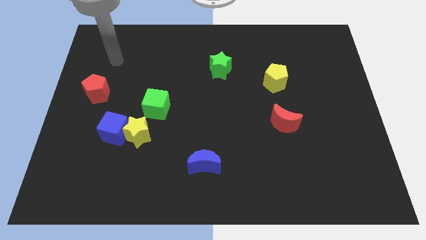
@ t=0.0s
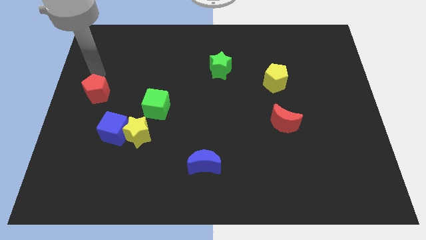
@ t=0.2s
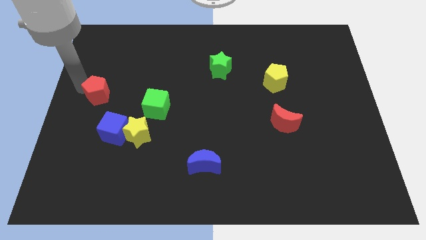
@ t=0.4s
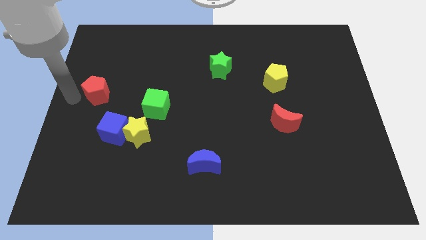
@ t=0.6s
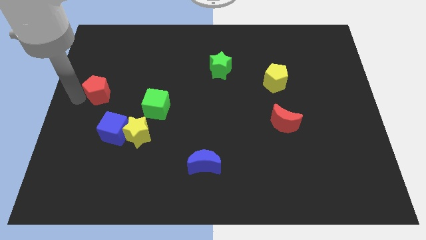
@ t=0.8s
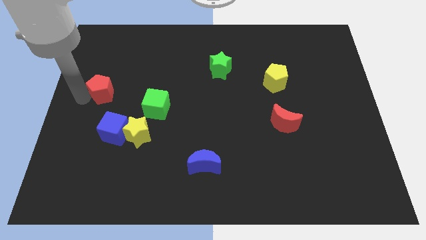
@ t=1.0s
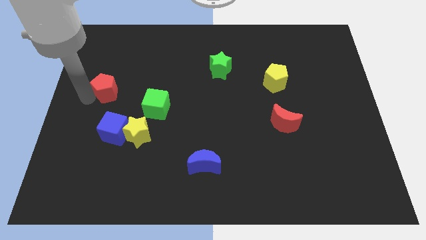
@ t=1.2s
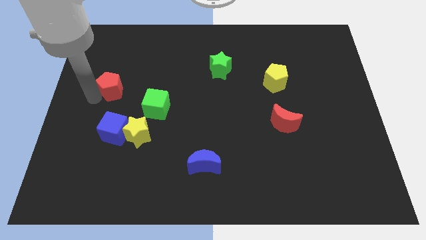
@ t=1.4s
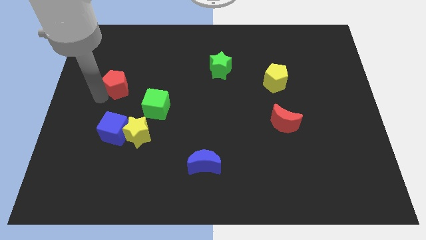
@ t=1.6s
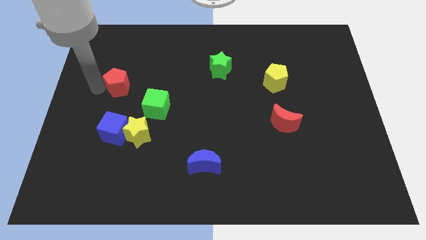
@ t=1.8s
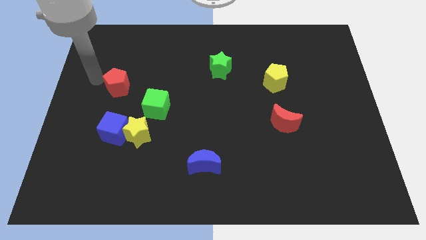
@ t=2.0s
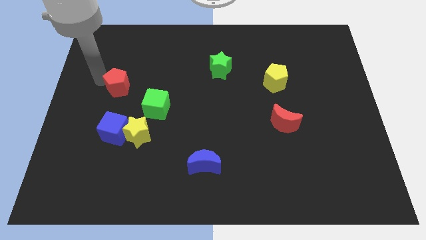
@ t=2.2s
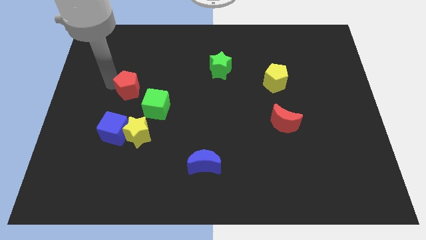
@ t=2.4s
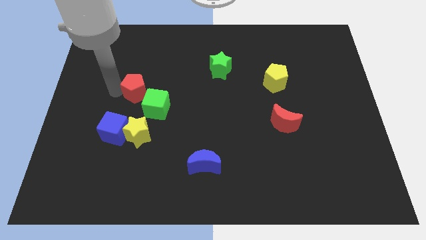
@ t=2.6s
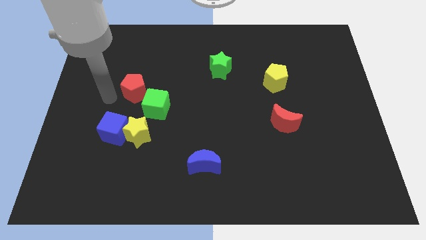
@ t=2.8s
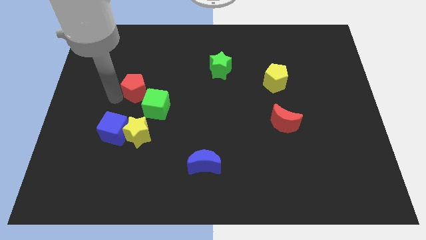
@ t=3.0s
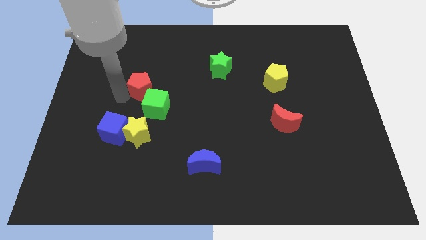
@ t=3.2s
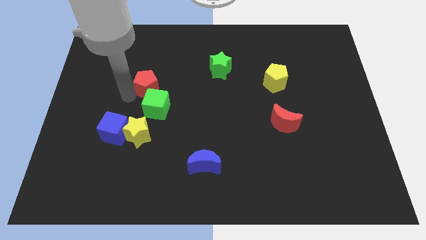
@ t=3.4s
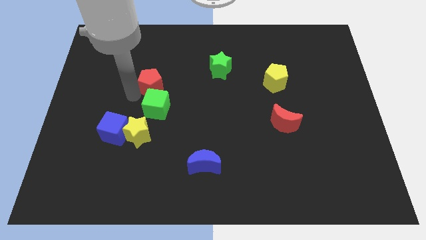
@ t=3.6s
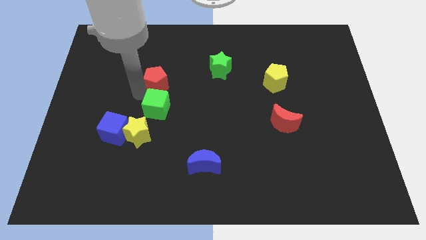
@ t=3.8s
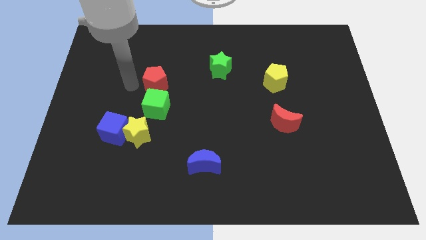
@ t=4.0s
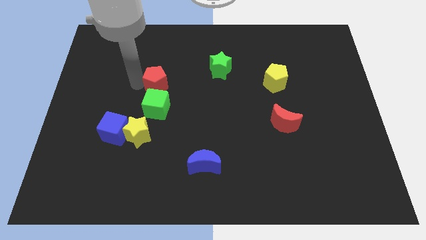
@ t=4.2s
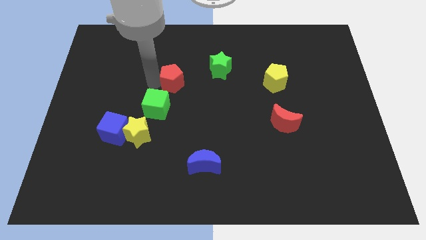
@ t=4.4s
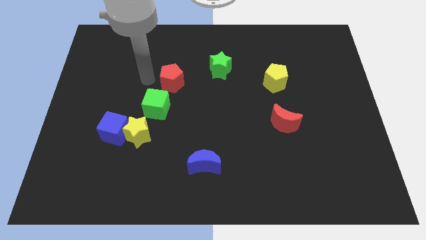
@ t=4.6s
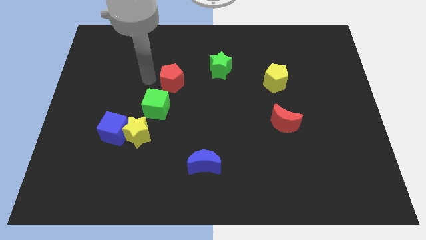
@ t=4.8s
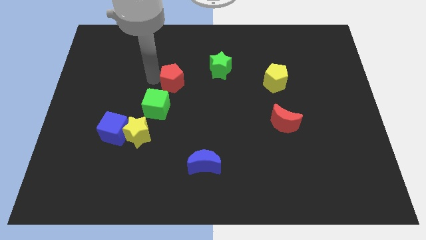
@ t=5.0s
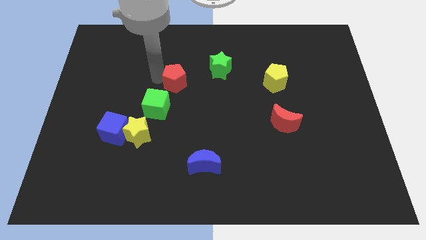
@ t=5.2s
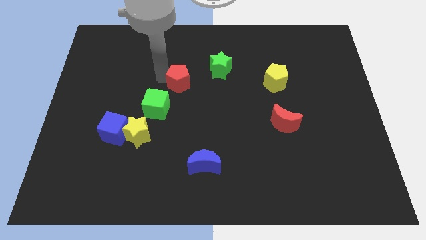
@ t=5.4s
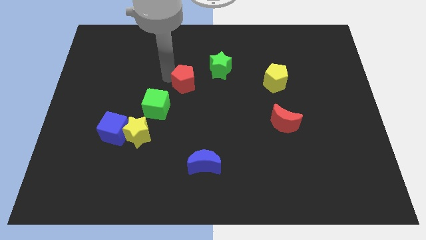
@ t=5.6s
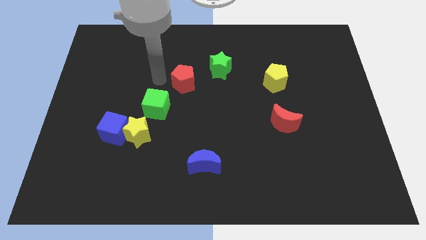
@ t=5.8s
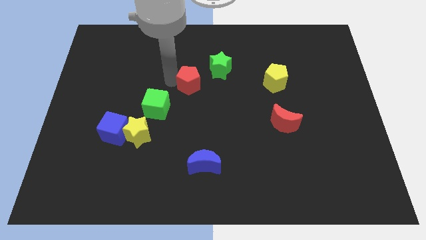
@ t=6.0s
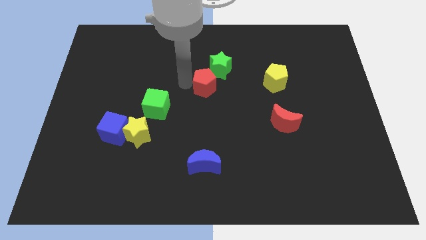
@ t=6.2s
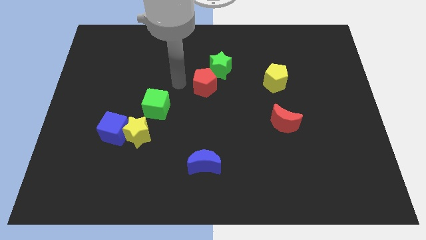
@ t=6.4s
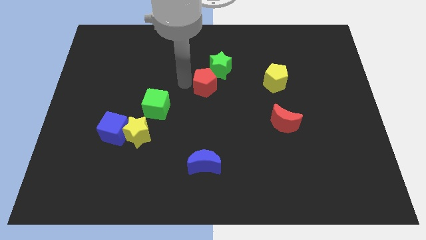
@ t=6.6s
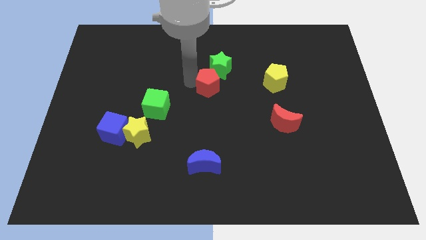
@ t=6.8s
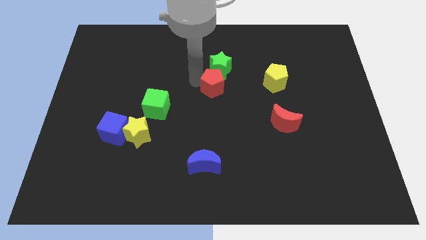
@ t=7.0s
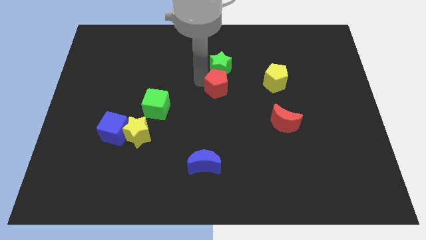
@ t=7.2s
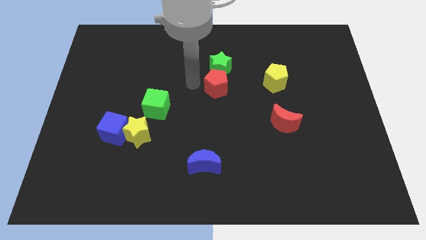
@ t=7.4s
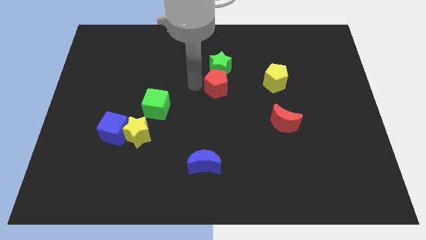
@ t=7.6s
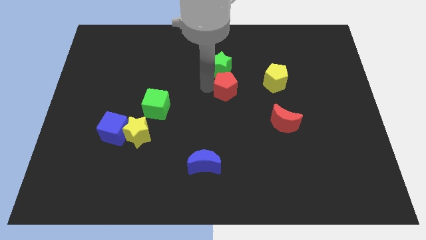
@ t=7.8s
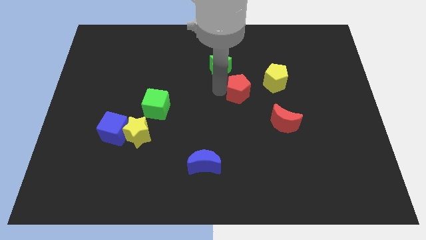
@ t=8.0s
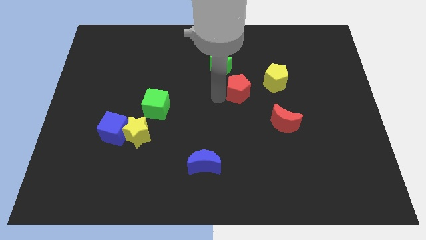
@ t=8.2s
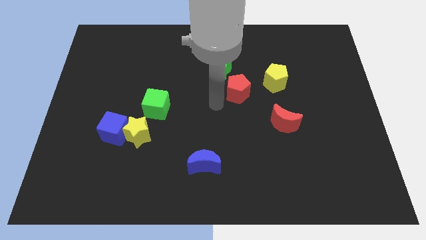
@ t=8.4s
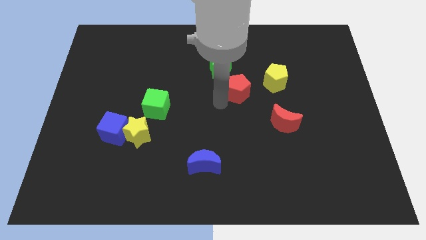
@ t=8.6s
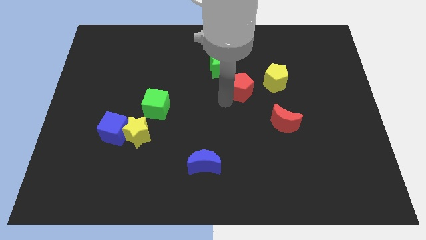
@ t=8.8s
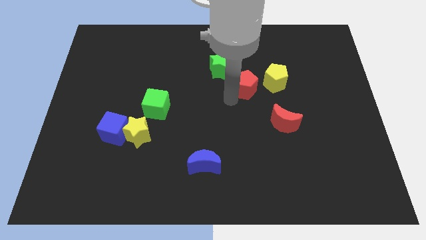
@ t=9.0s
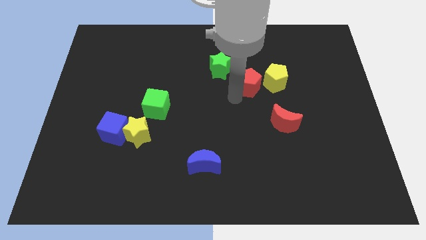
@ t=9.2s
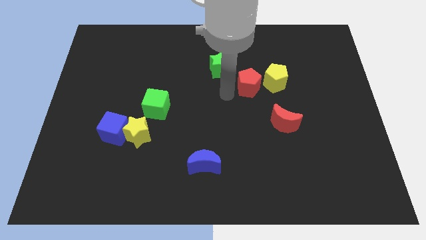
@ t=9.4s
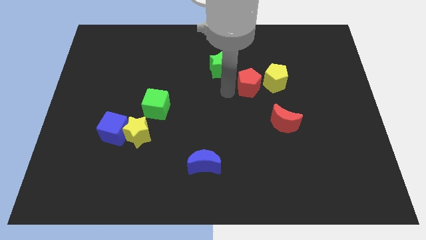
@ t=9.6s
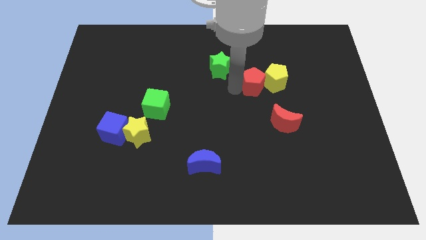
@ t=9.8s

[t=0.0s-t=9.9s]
move the red pentagon close to the yellow pentagon

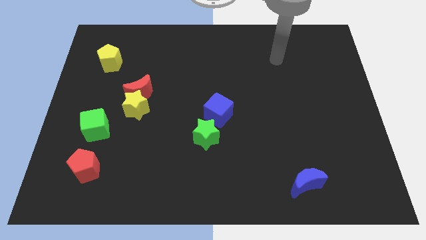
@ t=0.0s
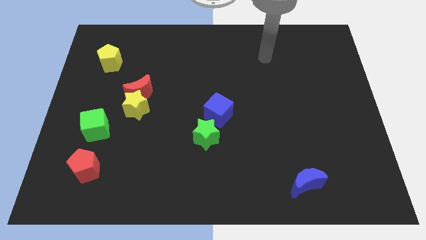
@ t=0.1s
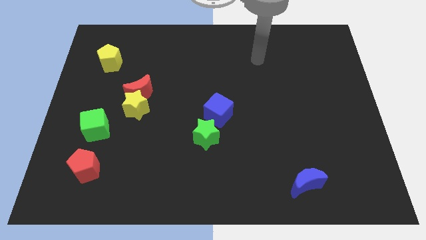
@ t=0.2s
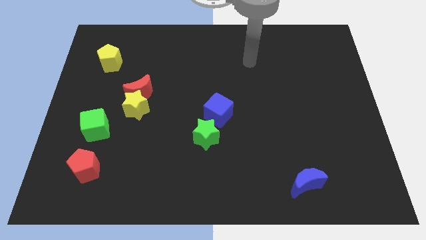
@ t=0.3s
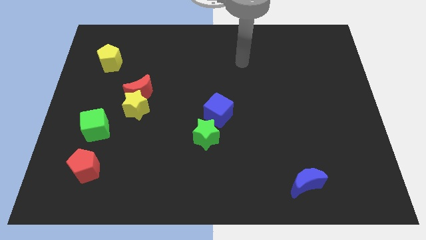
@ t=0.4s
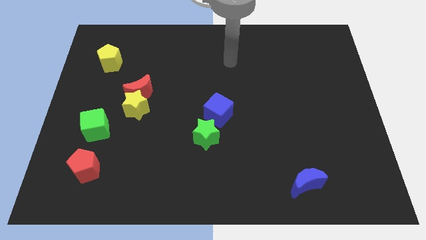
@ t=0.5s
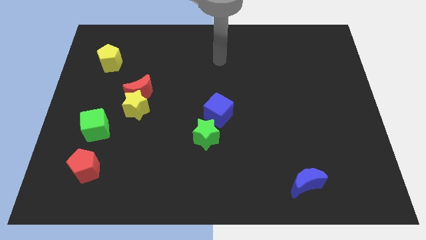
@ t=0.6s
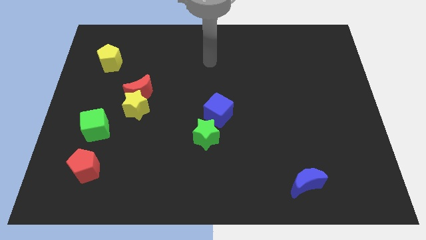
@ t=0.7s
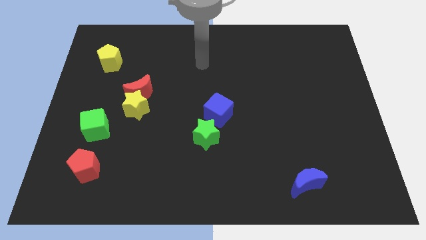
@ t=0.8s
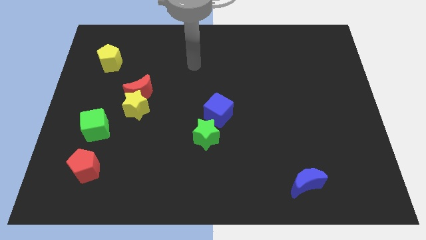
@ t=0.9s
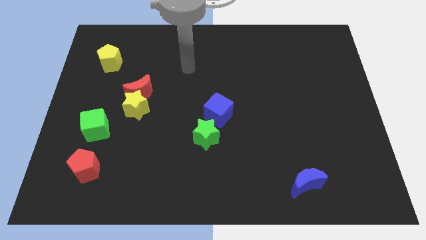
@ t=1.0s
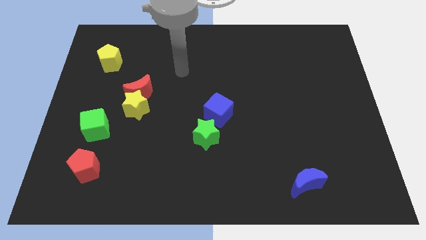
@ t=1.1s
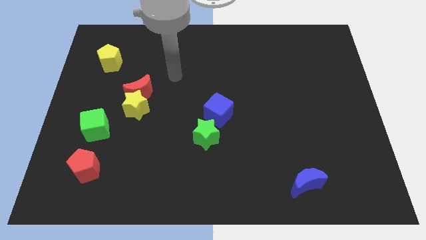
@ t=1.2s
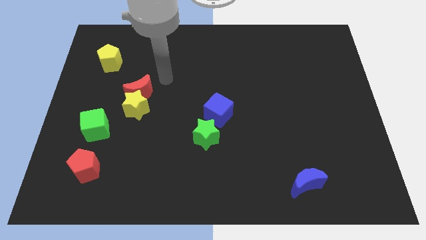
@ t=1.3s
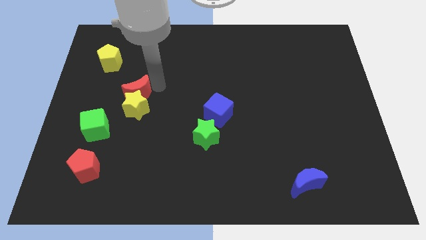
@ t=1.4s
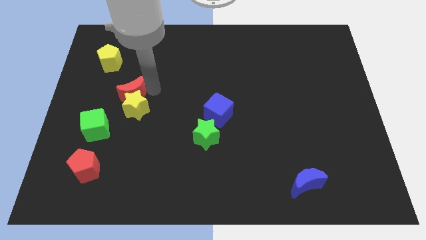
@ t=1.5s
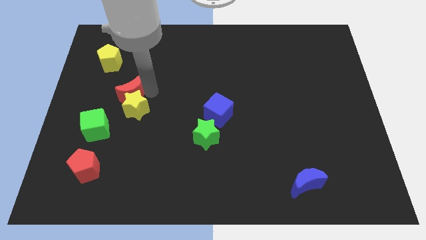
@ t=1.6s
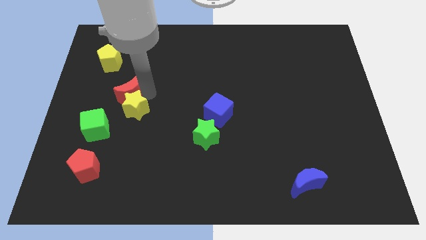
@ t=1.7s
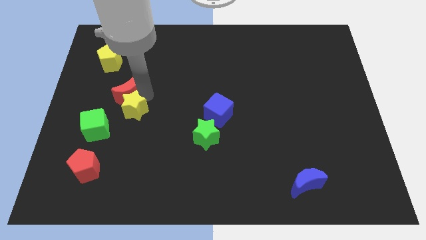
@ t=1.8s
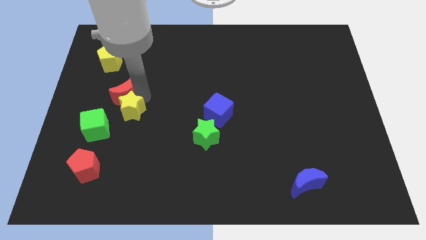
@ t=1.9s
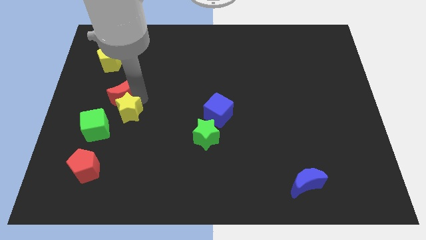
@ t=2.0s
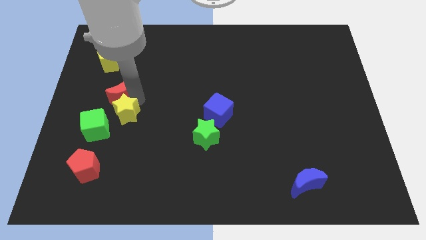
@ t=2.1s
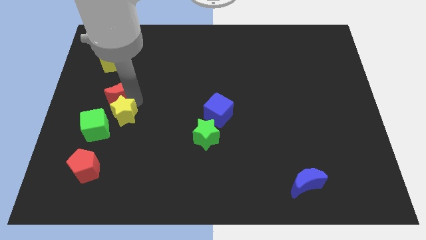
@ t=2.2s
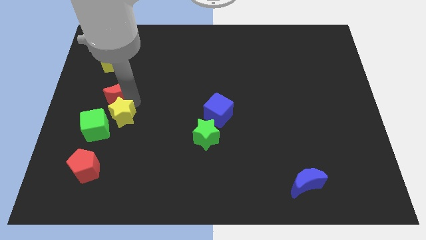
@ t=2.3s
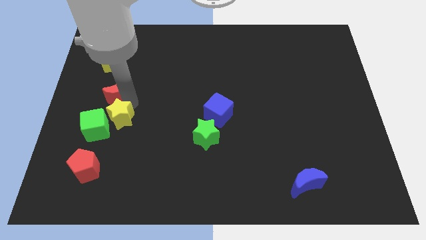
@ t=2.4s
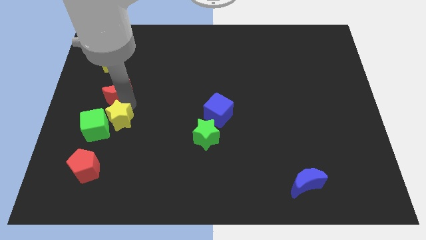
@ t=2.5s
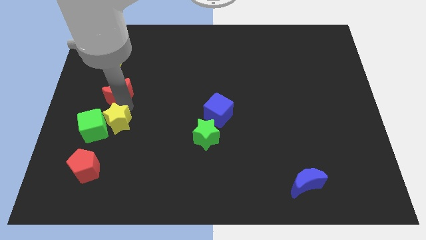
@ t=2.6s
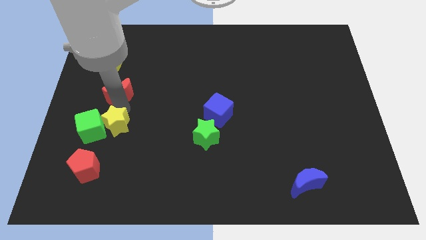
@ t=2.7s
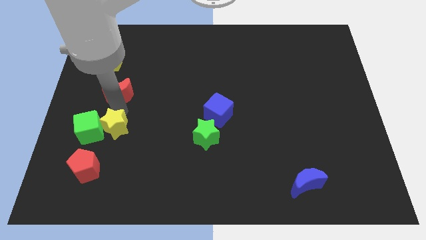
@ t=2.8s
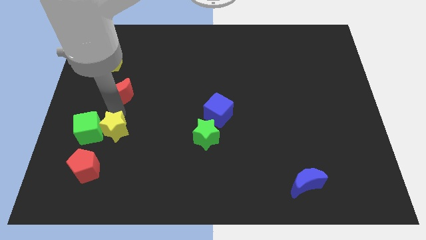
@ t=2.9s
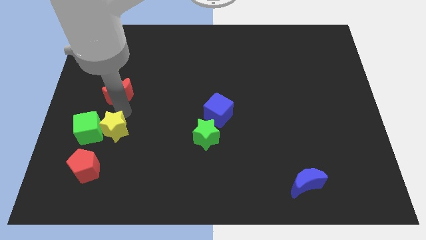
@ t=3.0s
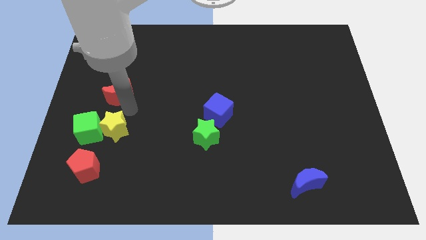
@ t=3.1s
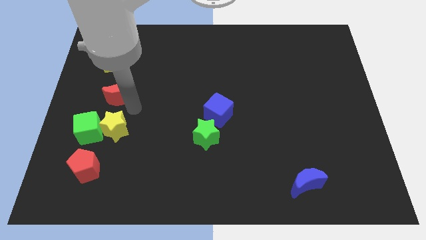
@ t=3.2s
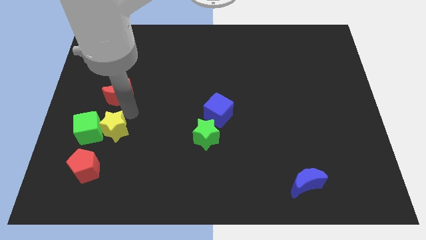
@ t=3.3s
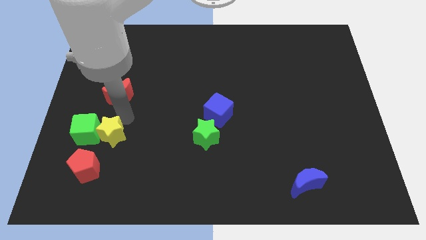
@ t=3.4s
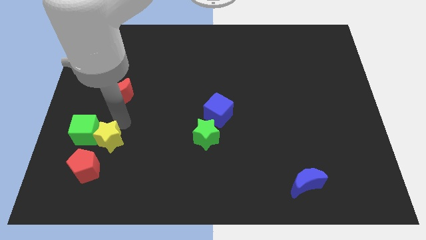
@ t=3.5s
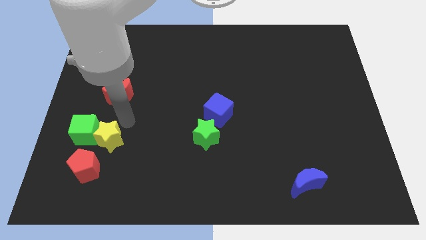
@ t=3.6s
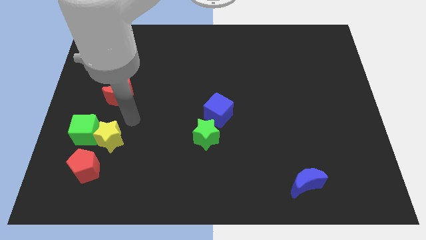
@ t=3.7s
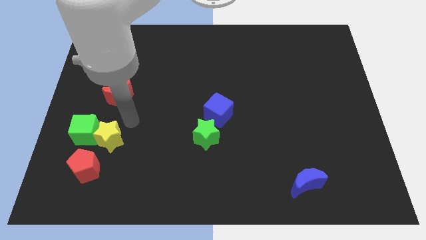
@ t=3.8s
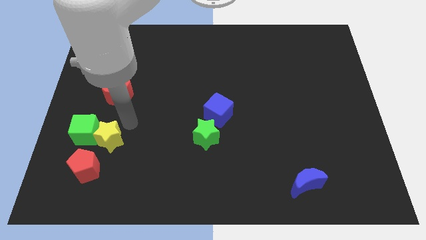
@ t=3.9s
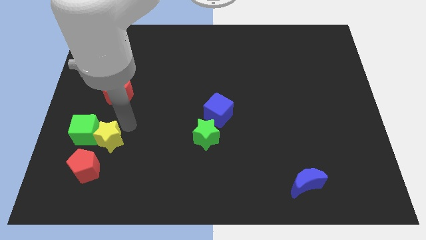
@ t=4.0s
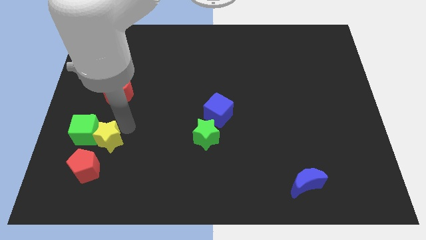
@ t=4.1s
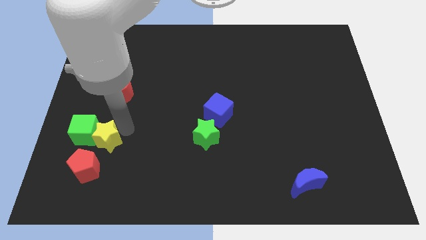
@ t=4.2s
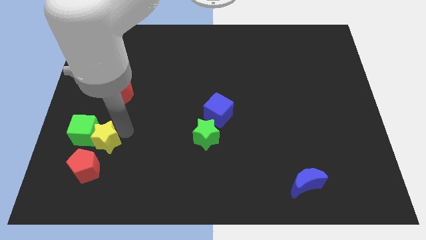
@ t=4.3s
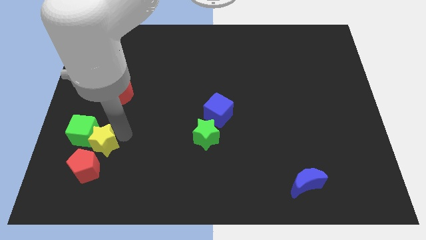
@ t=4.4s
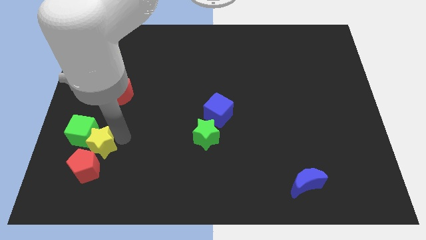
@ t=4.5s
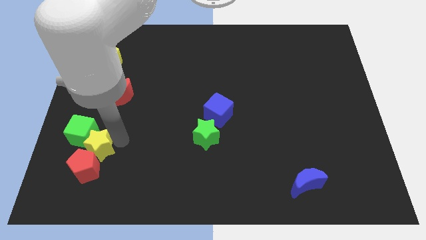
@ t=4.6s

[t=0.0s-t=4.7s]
push the yellow star next to the red pentagon
